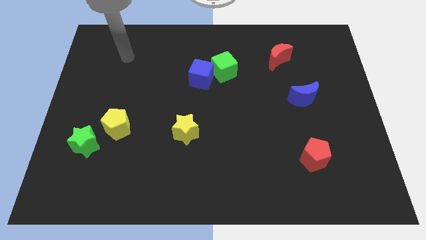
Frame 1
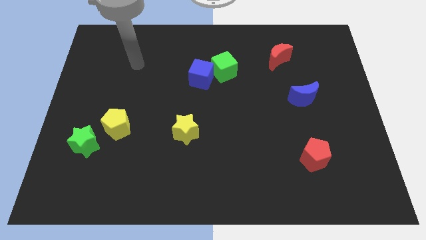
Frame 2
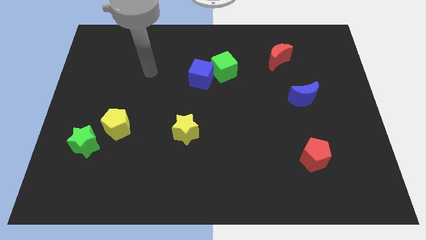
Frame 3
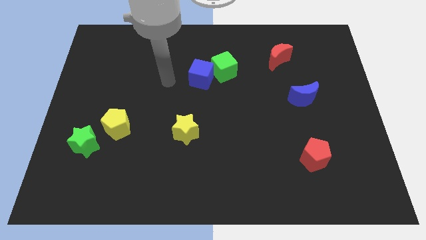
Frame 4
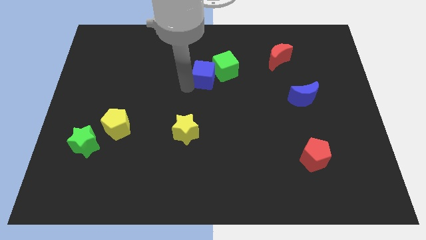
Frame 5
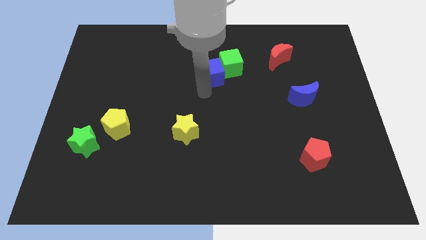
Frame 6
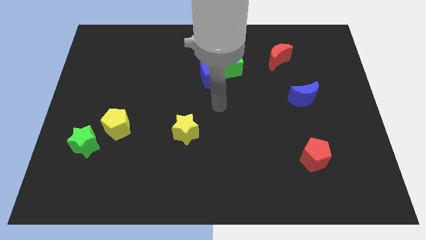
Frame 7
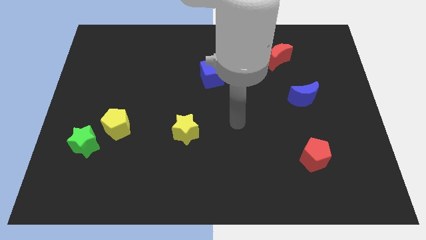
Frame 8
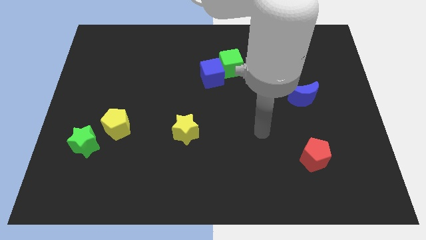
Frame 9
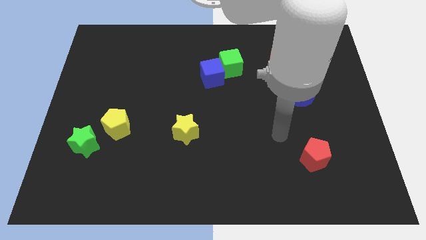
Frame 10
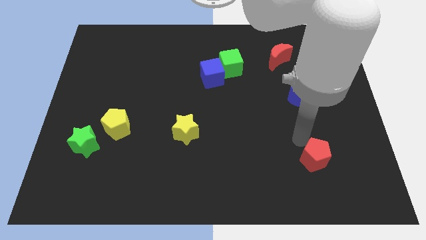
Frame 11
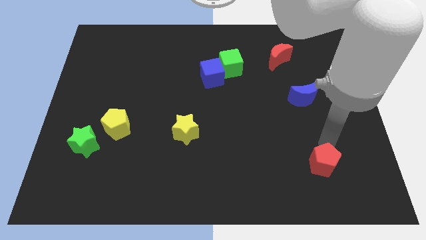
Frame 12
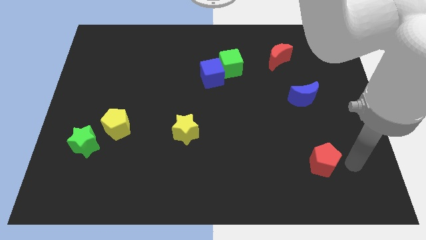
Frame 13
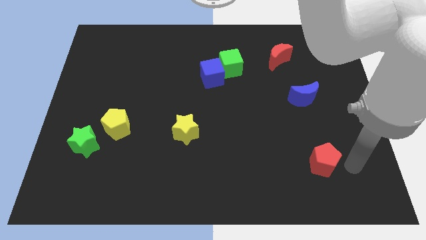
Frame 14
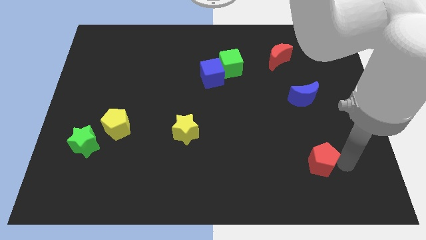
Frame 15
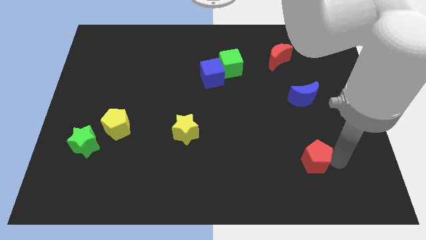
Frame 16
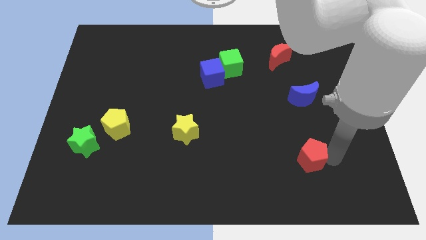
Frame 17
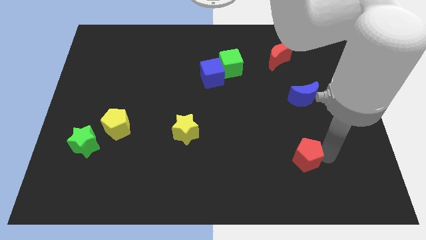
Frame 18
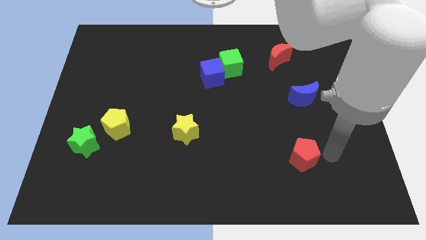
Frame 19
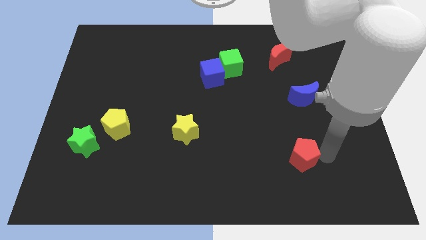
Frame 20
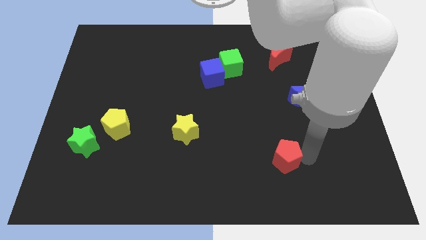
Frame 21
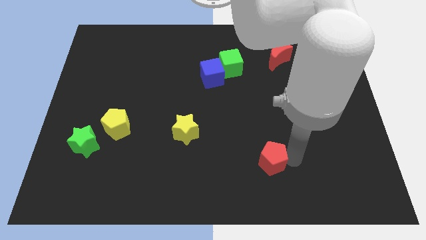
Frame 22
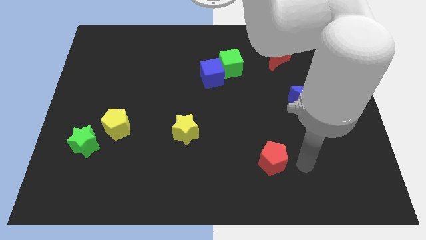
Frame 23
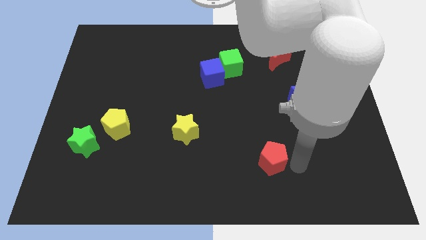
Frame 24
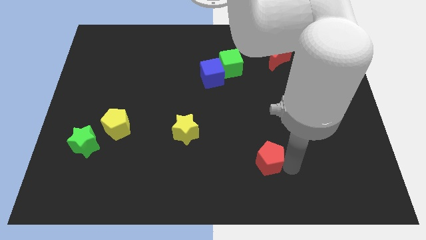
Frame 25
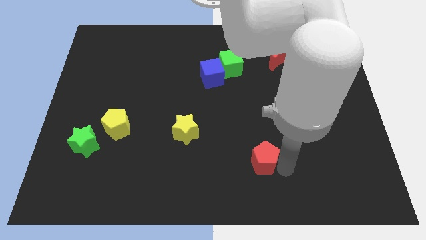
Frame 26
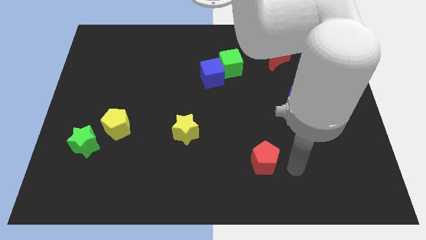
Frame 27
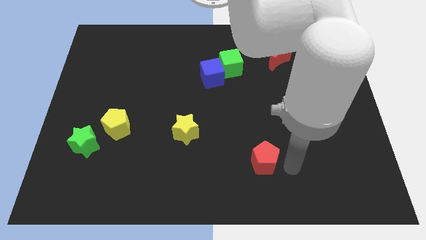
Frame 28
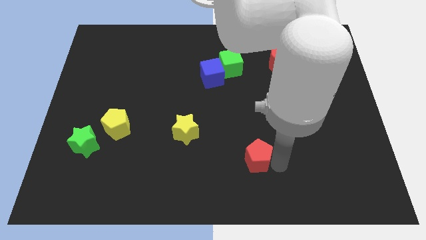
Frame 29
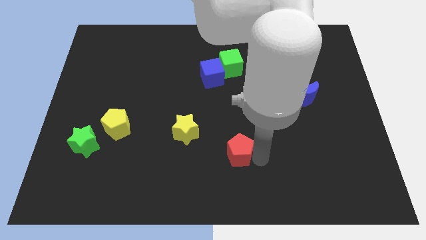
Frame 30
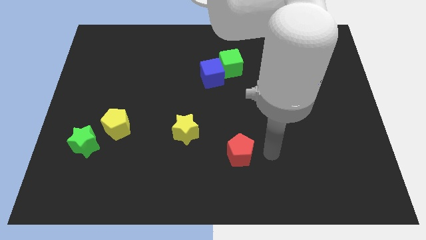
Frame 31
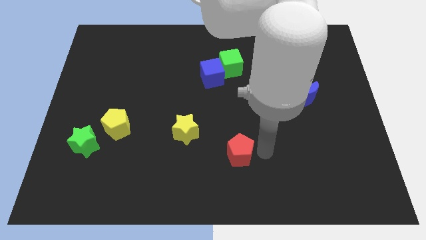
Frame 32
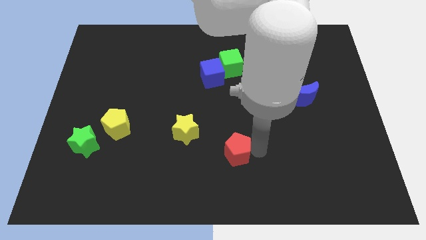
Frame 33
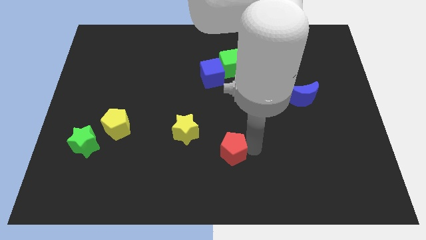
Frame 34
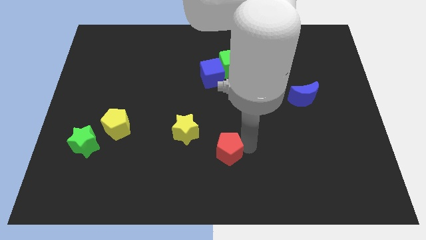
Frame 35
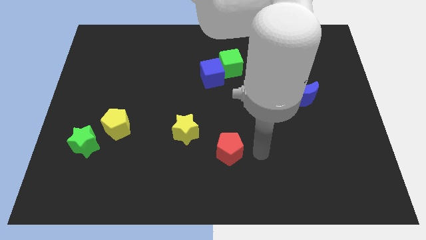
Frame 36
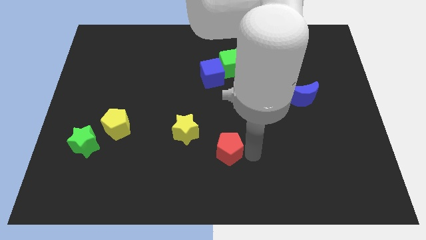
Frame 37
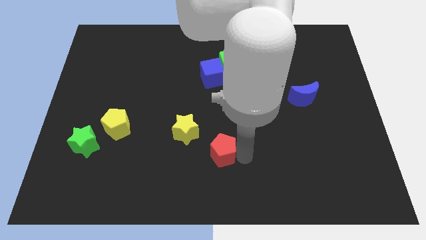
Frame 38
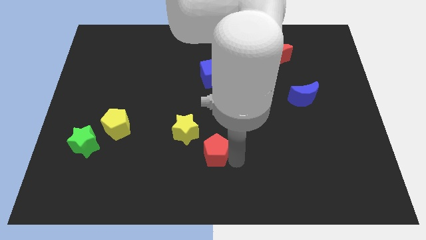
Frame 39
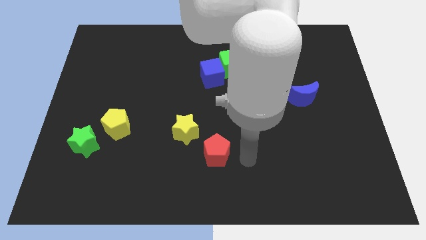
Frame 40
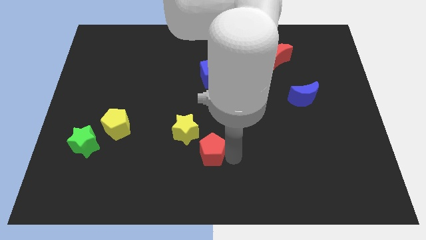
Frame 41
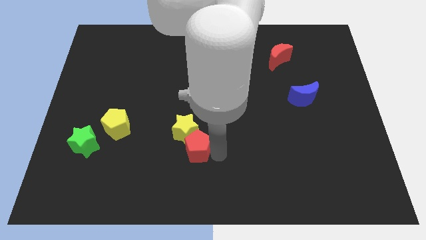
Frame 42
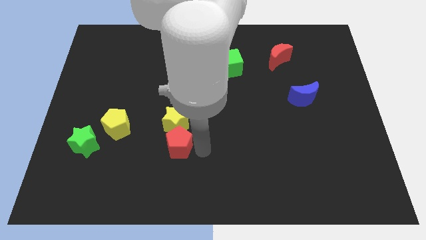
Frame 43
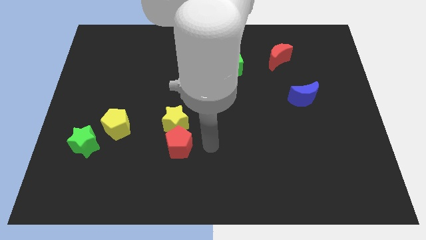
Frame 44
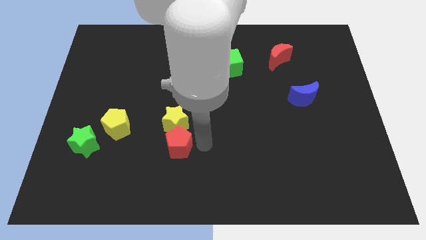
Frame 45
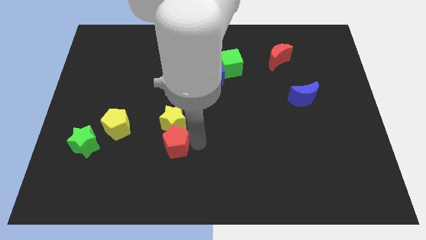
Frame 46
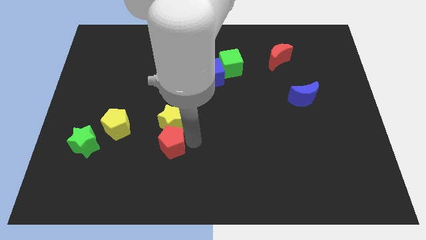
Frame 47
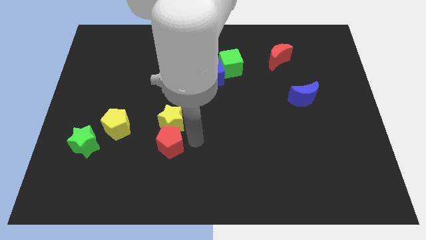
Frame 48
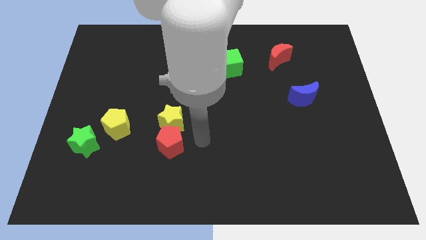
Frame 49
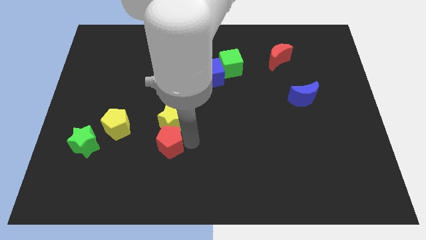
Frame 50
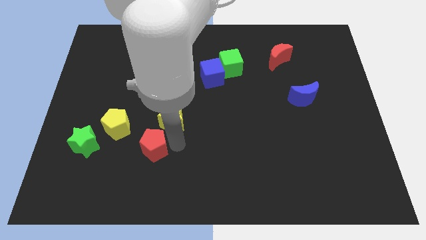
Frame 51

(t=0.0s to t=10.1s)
push the red pentagon to the right side of the green star

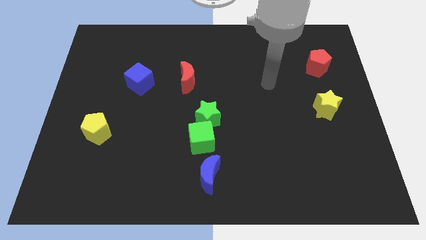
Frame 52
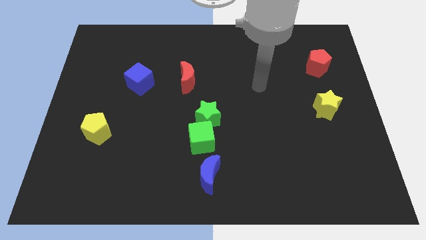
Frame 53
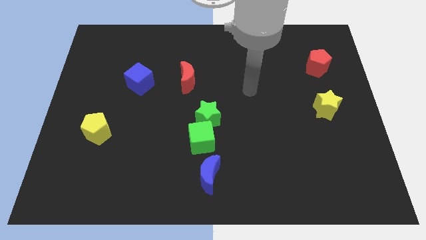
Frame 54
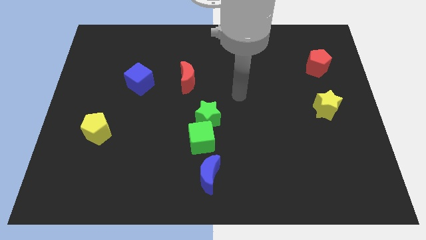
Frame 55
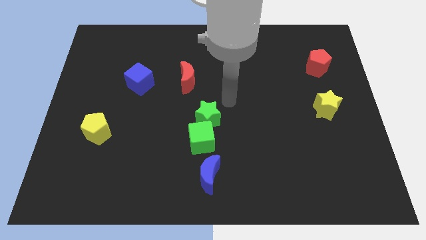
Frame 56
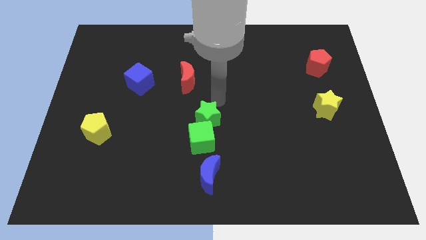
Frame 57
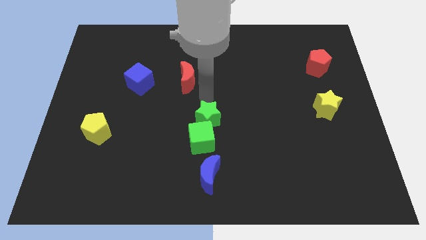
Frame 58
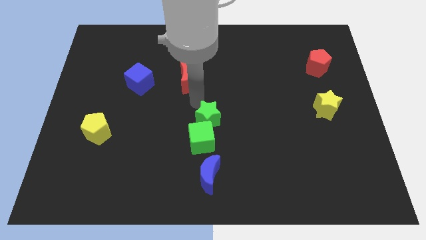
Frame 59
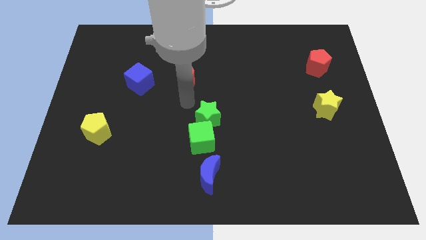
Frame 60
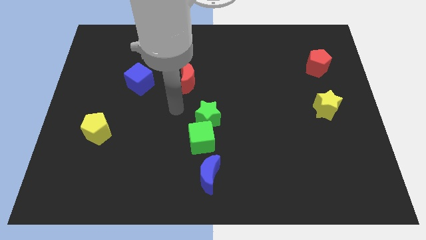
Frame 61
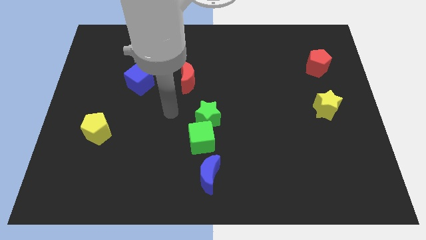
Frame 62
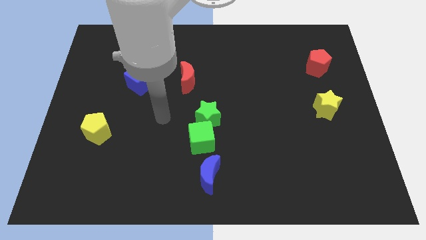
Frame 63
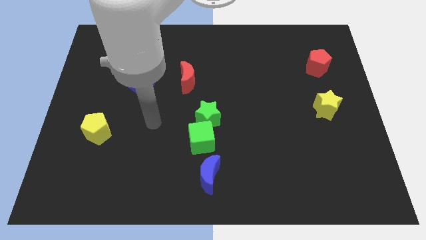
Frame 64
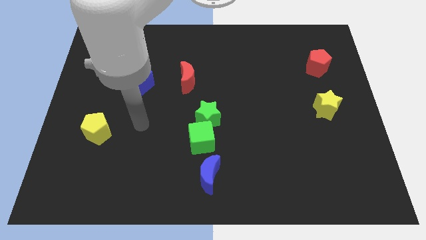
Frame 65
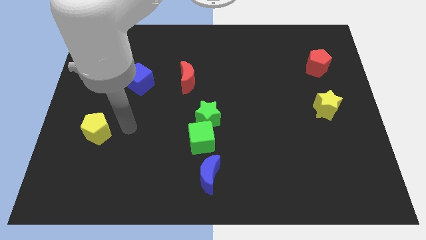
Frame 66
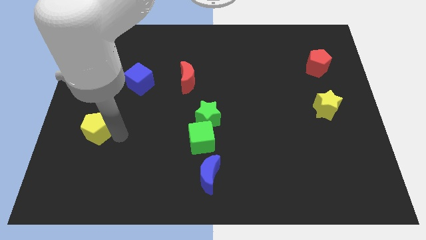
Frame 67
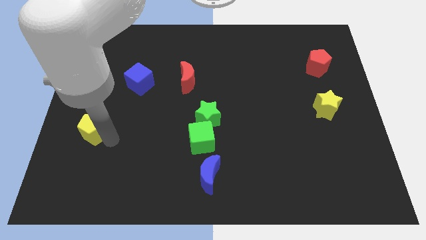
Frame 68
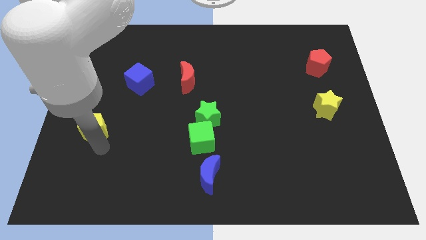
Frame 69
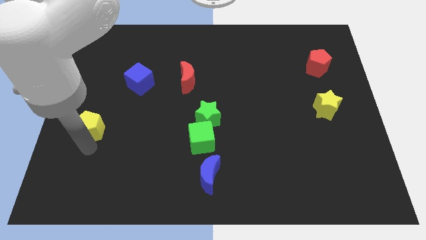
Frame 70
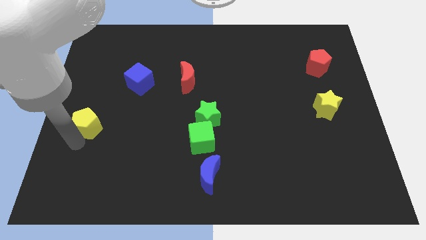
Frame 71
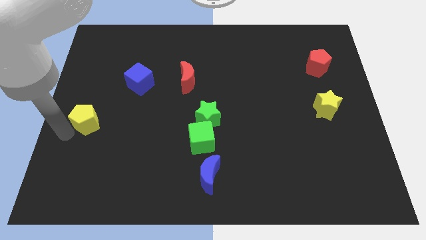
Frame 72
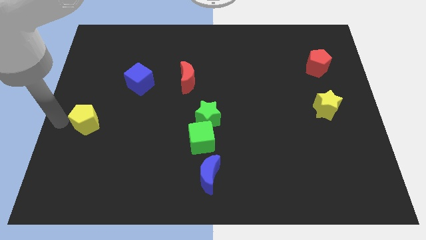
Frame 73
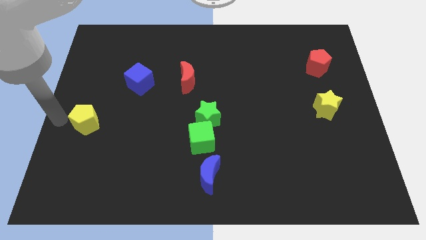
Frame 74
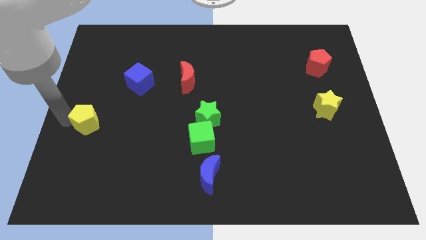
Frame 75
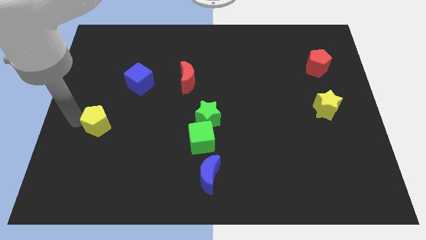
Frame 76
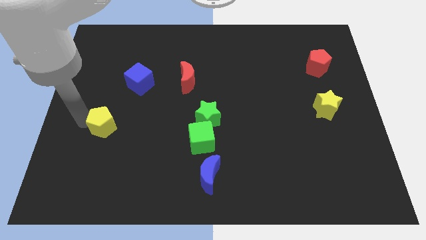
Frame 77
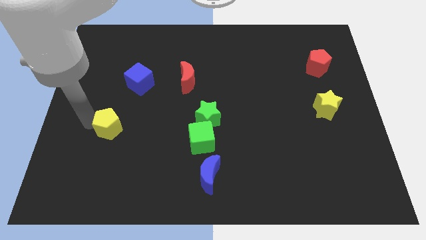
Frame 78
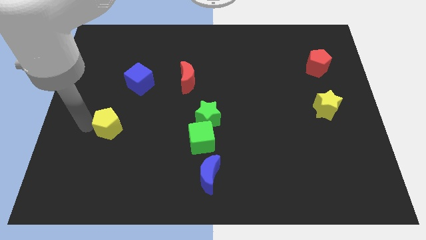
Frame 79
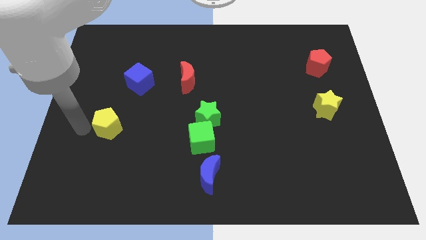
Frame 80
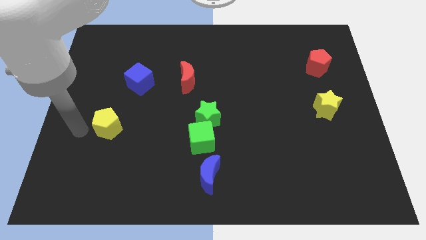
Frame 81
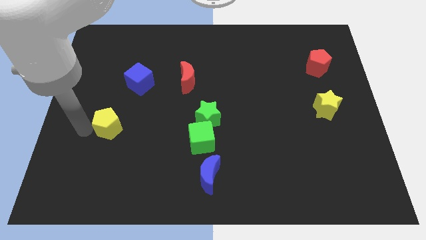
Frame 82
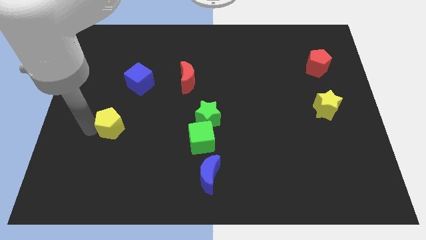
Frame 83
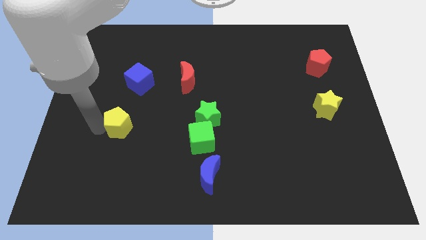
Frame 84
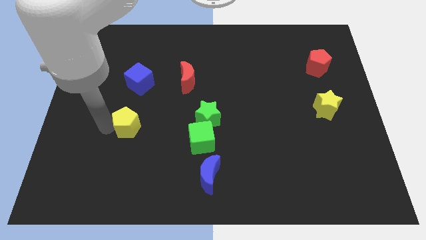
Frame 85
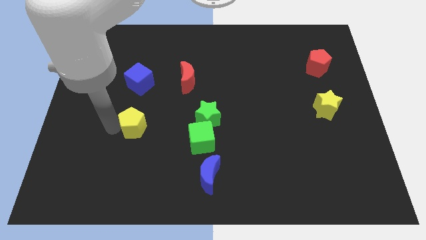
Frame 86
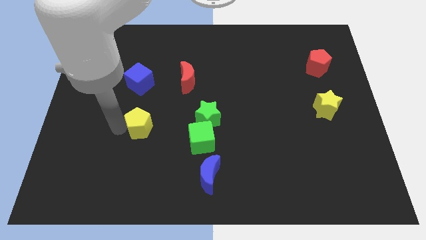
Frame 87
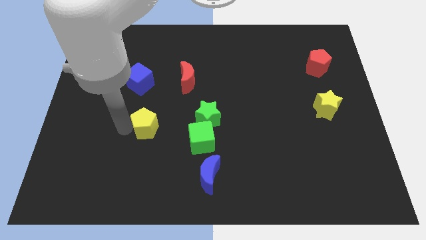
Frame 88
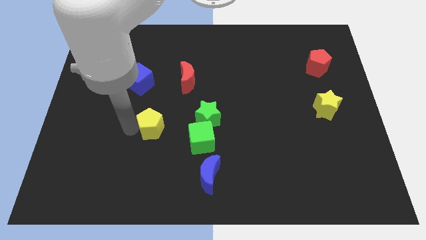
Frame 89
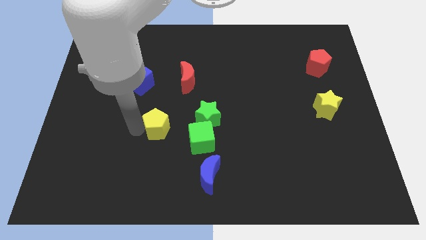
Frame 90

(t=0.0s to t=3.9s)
move the yellow pentagon to the top left side of the green cube
